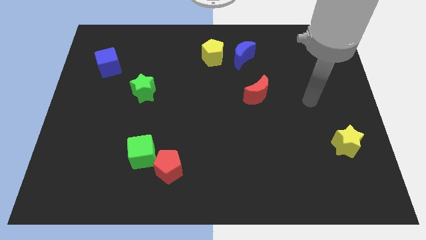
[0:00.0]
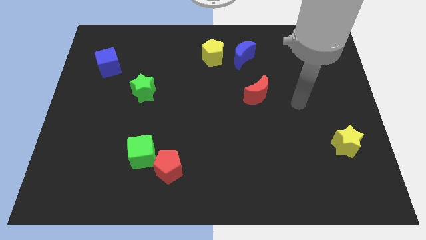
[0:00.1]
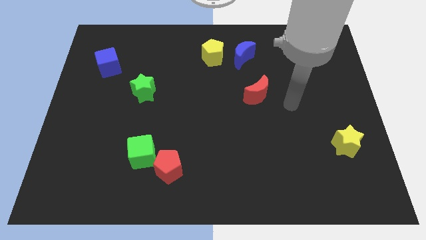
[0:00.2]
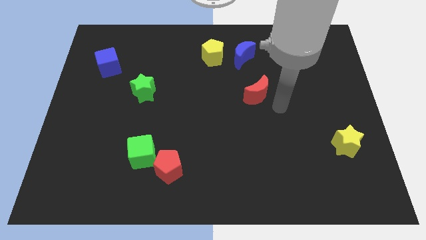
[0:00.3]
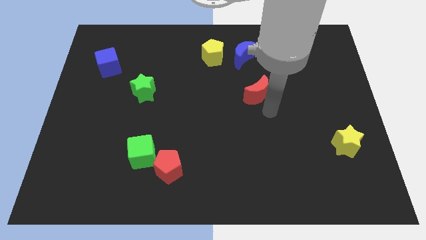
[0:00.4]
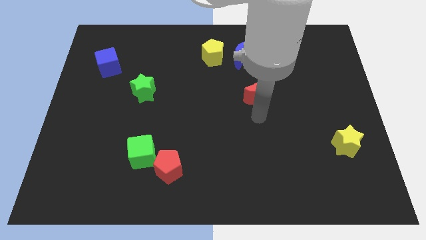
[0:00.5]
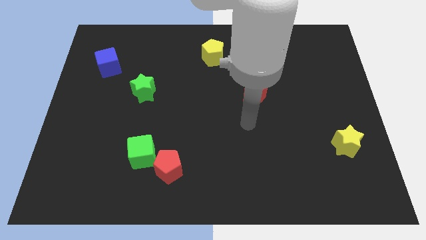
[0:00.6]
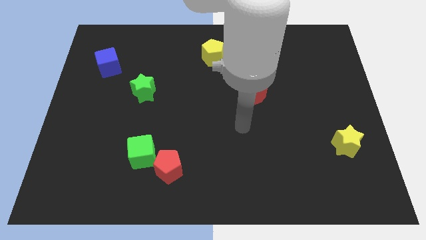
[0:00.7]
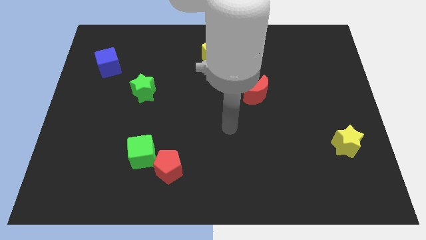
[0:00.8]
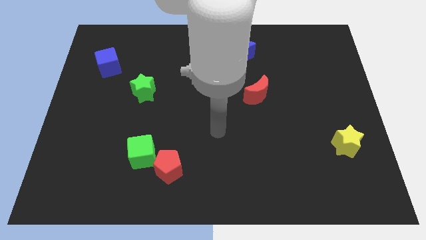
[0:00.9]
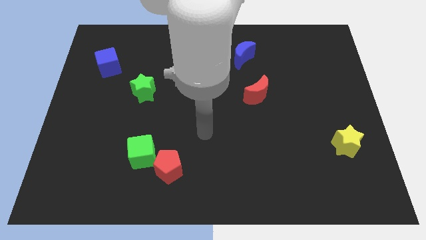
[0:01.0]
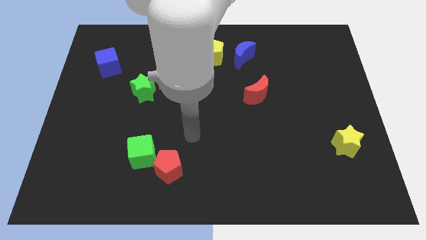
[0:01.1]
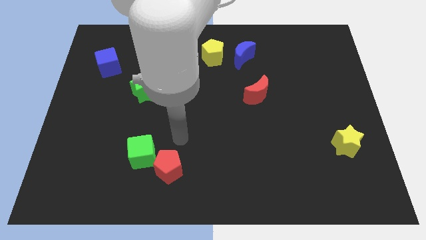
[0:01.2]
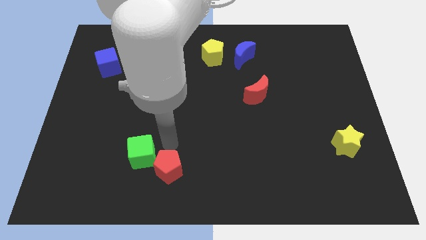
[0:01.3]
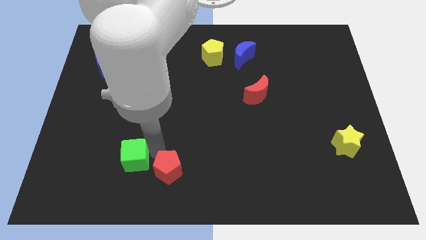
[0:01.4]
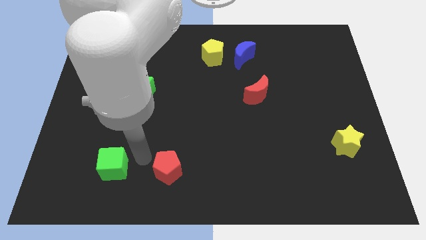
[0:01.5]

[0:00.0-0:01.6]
move the red pentagon away from the green cube

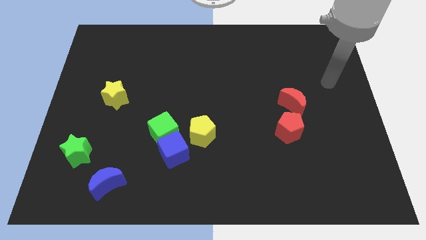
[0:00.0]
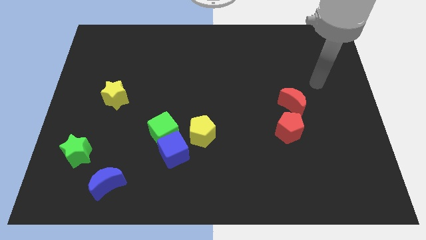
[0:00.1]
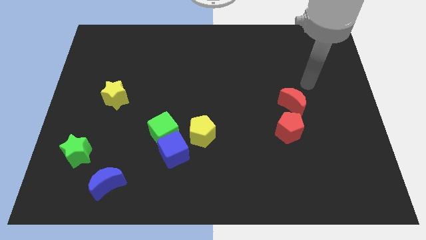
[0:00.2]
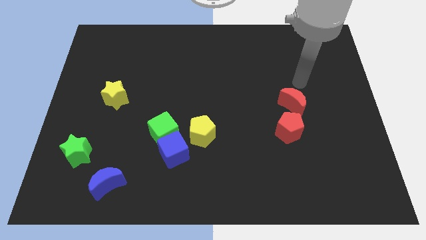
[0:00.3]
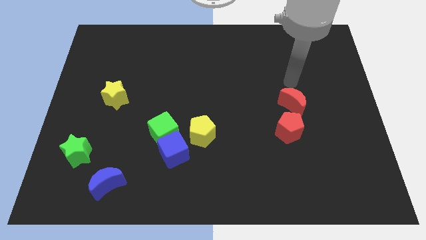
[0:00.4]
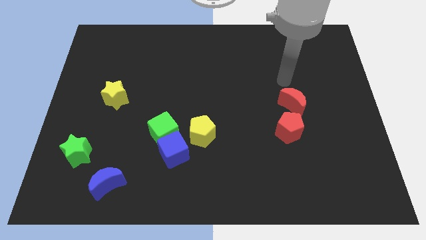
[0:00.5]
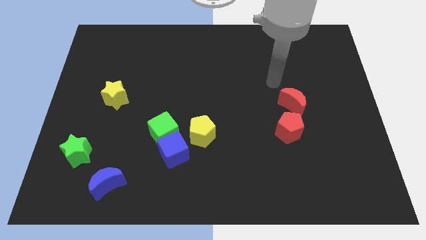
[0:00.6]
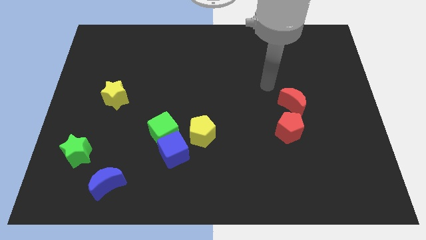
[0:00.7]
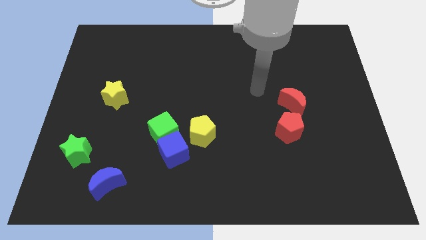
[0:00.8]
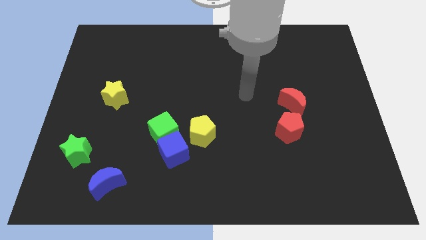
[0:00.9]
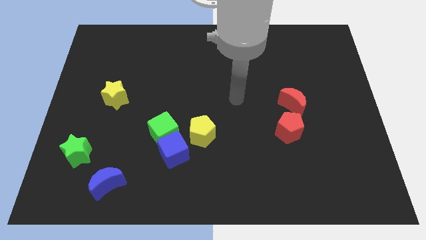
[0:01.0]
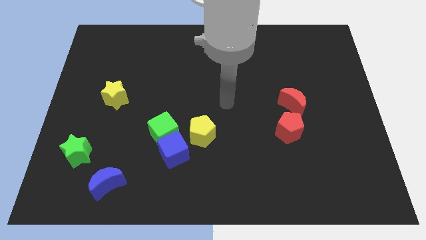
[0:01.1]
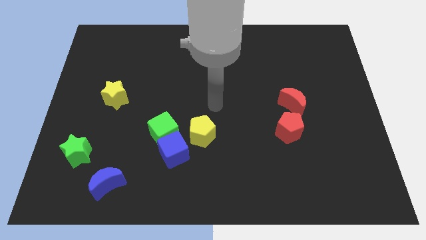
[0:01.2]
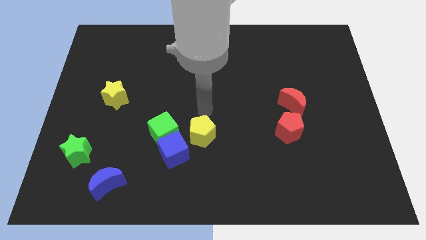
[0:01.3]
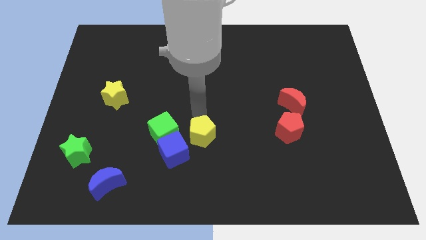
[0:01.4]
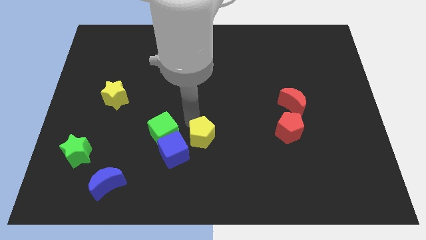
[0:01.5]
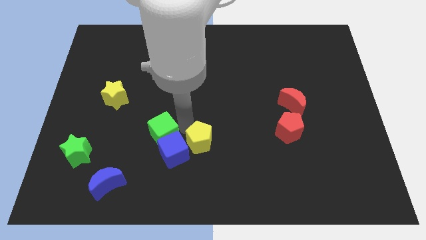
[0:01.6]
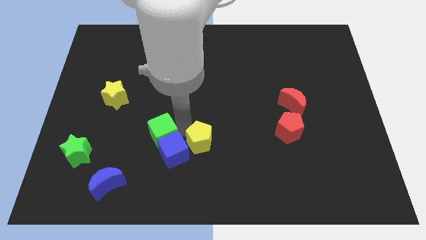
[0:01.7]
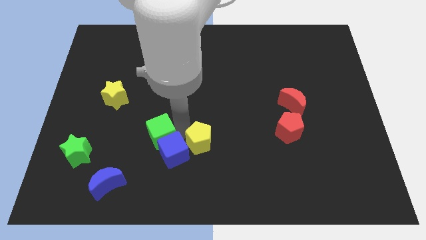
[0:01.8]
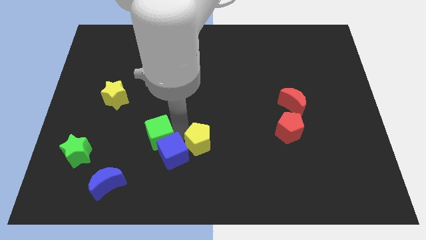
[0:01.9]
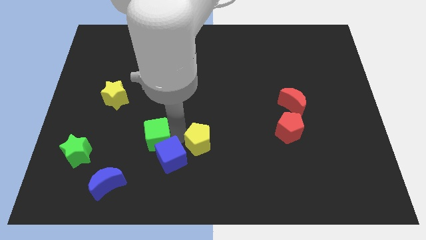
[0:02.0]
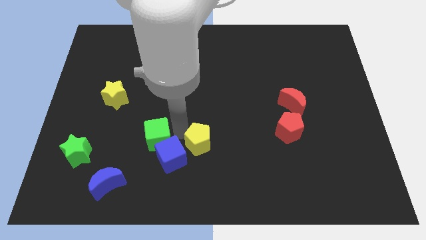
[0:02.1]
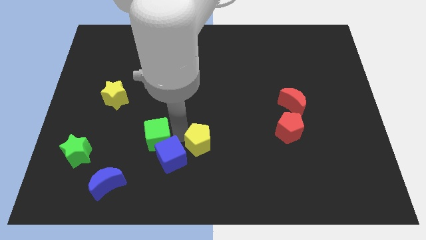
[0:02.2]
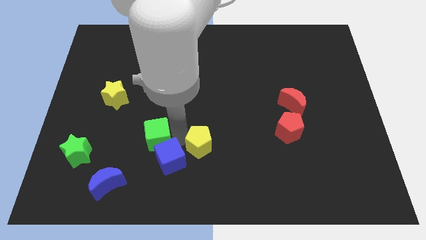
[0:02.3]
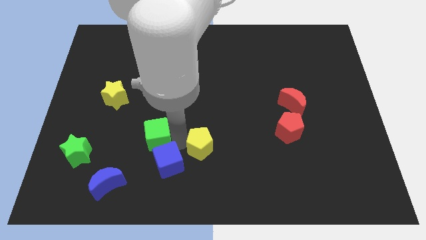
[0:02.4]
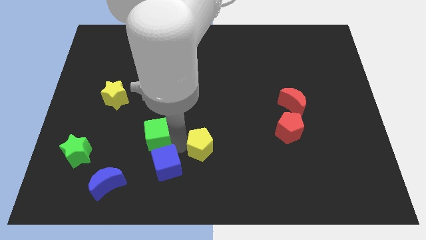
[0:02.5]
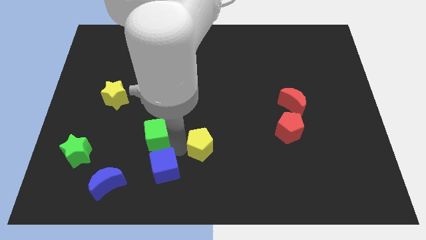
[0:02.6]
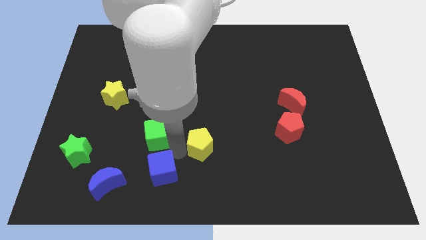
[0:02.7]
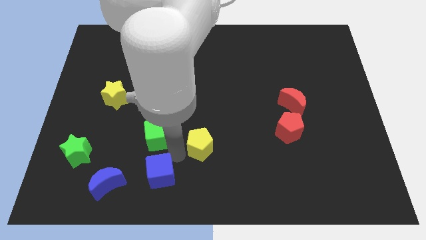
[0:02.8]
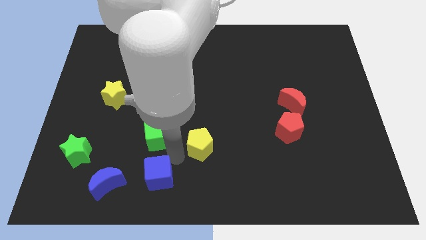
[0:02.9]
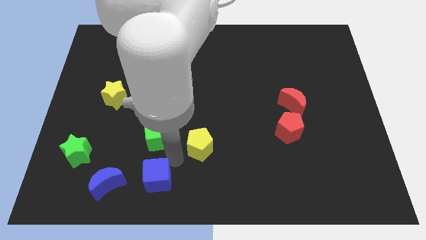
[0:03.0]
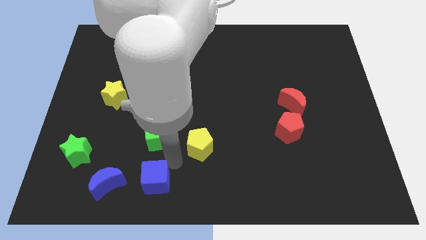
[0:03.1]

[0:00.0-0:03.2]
move the blue cube away from the green cube and yellow pentagon

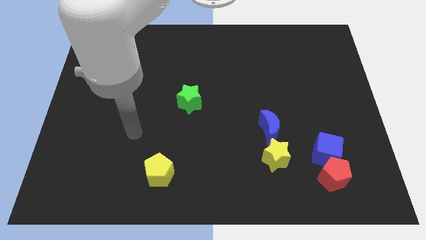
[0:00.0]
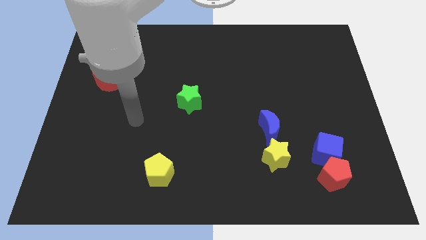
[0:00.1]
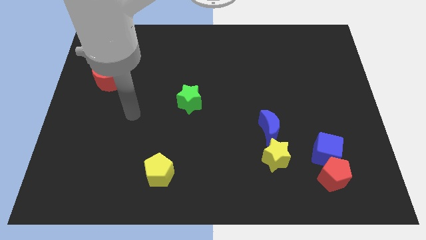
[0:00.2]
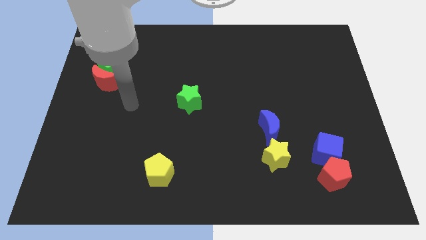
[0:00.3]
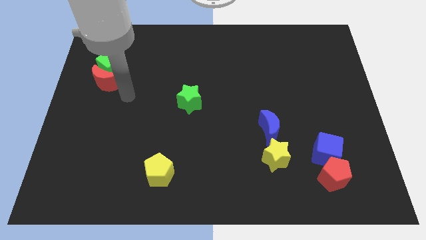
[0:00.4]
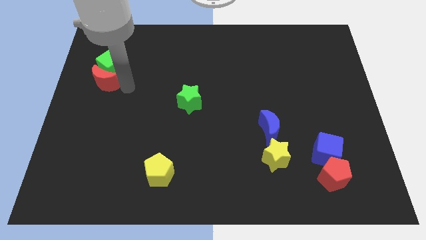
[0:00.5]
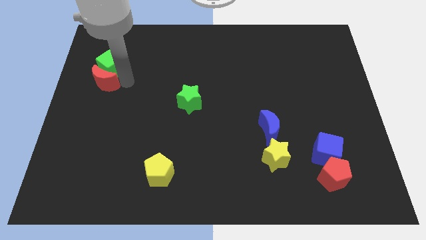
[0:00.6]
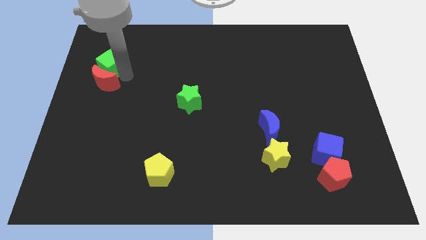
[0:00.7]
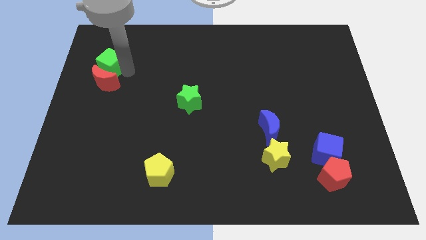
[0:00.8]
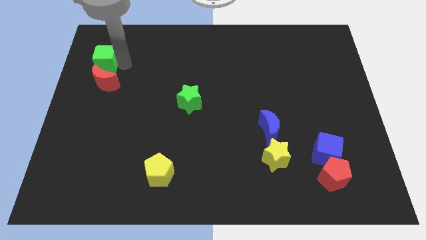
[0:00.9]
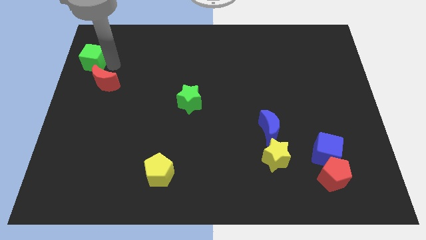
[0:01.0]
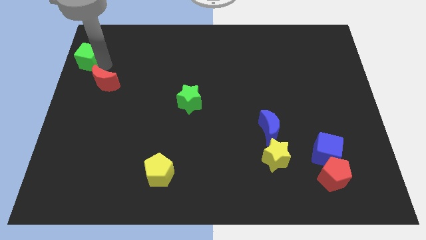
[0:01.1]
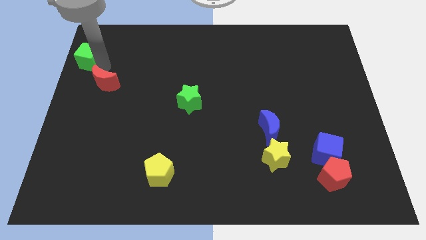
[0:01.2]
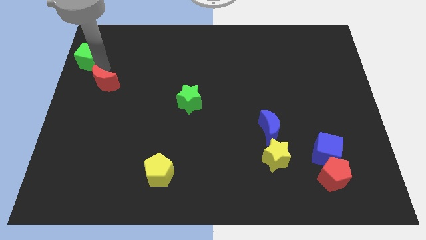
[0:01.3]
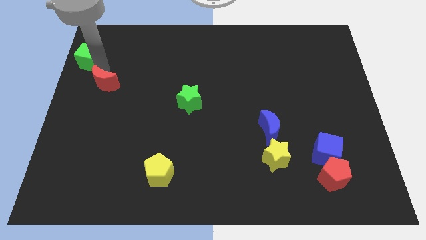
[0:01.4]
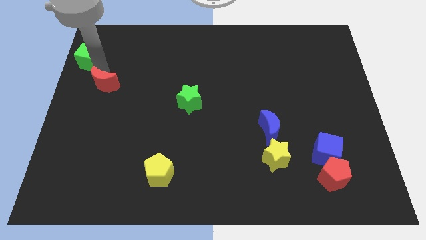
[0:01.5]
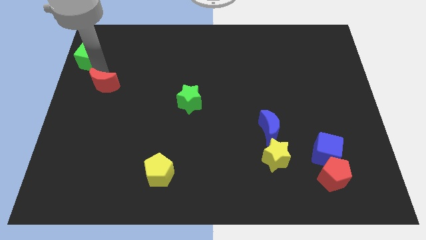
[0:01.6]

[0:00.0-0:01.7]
separate the red moon from the green cube

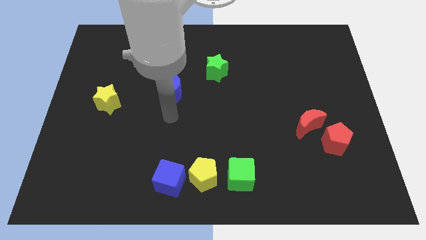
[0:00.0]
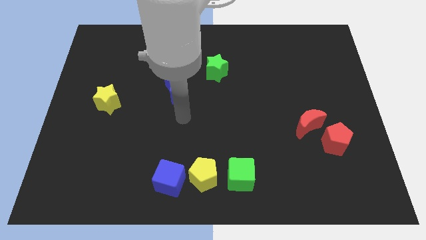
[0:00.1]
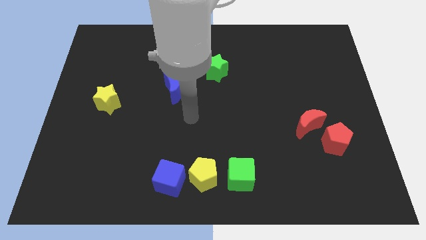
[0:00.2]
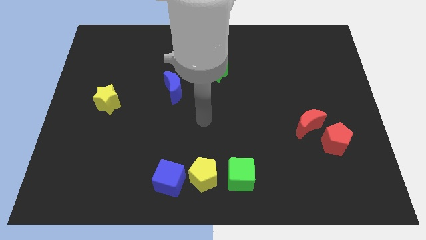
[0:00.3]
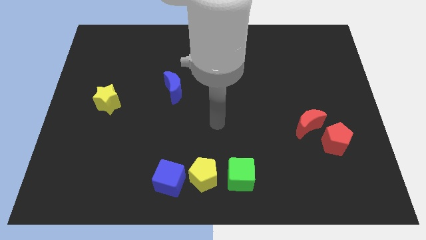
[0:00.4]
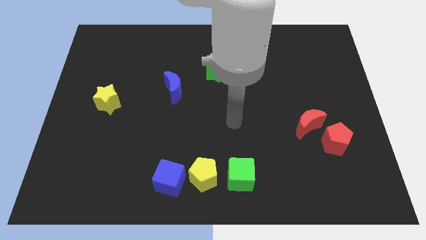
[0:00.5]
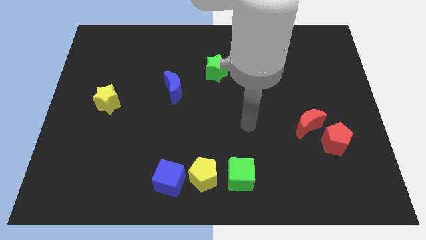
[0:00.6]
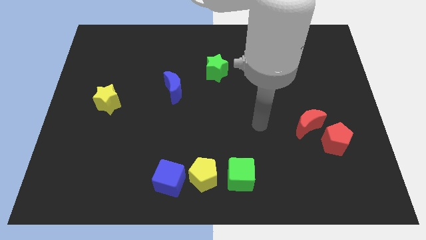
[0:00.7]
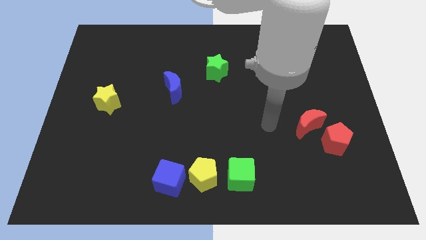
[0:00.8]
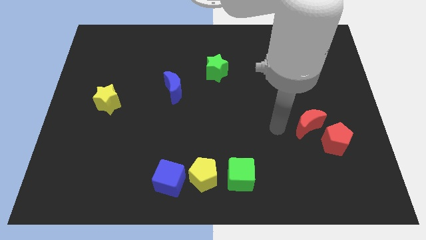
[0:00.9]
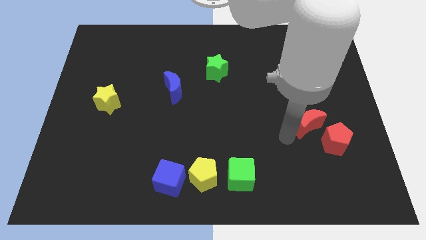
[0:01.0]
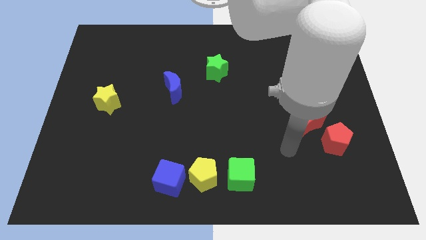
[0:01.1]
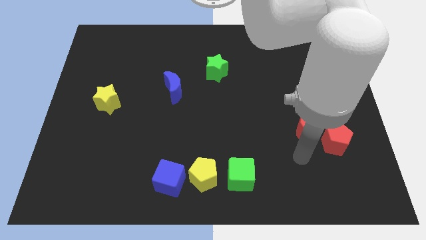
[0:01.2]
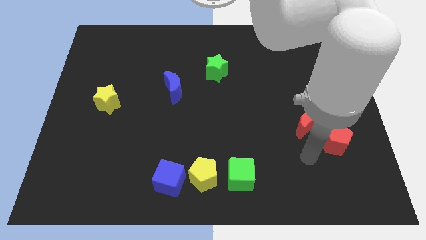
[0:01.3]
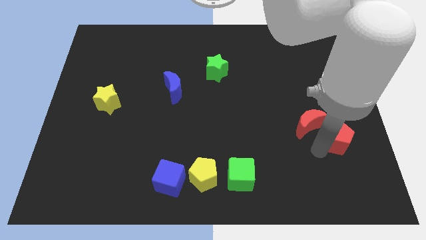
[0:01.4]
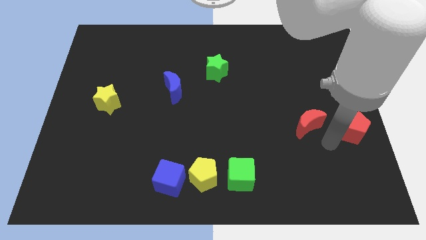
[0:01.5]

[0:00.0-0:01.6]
pull the red moon apart from the red pentagon

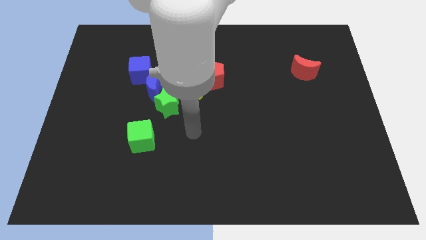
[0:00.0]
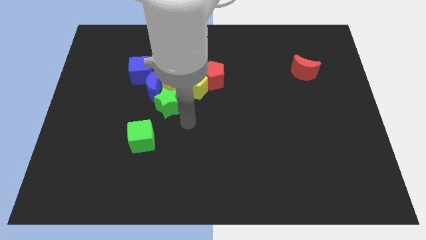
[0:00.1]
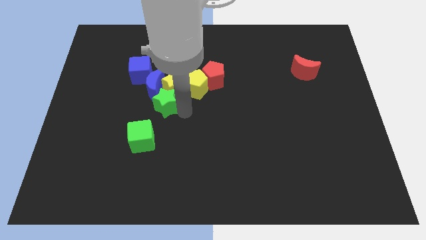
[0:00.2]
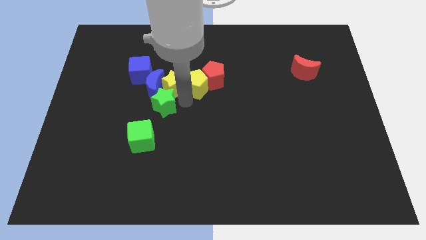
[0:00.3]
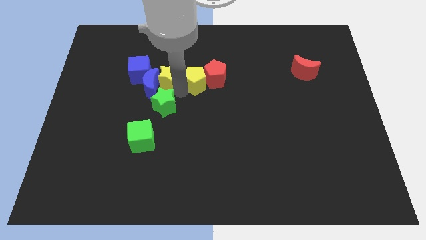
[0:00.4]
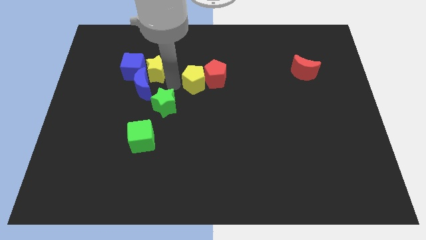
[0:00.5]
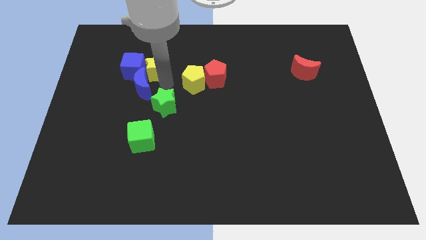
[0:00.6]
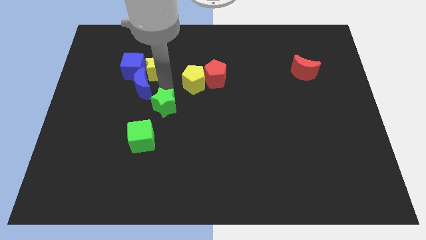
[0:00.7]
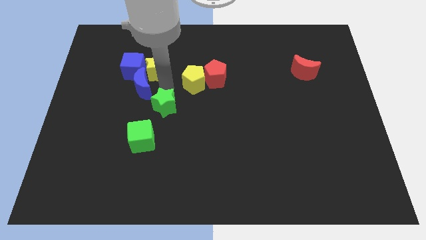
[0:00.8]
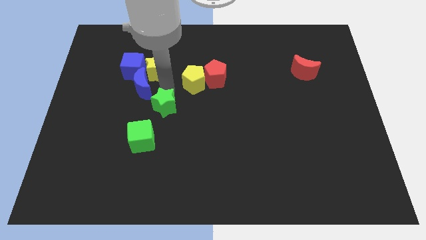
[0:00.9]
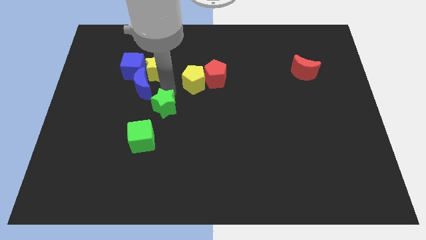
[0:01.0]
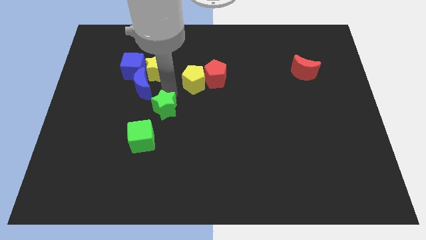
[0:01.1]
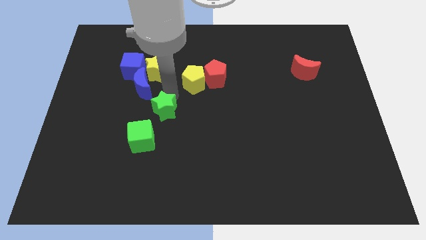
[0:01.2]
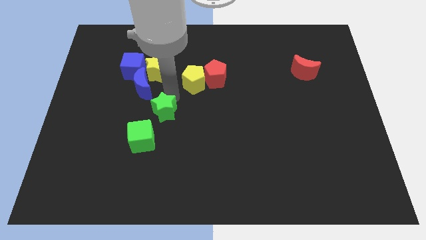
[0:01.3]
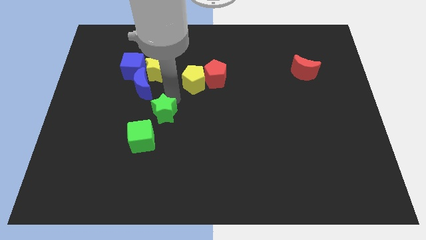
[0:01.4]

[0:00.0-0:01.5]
move the green star away from the clump
